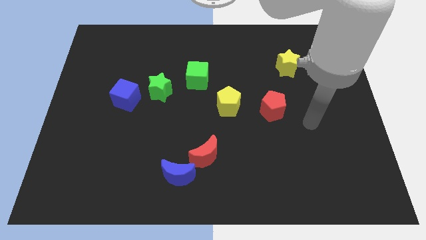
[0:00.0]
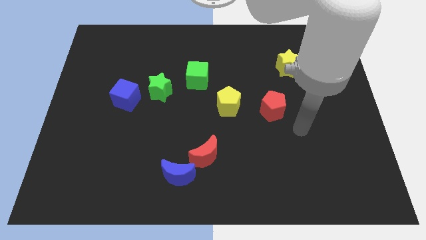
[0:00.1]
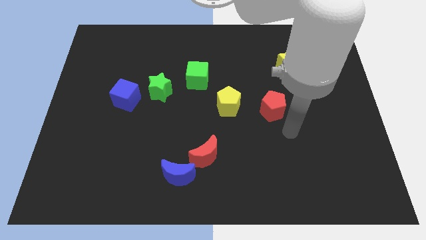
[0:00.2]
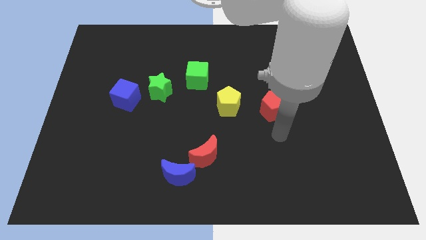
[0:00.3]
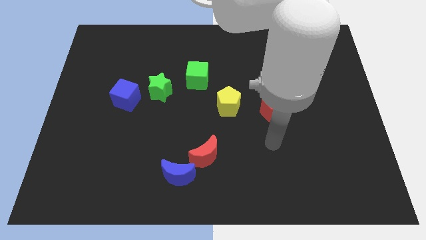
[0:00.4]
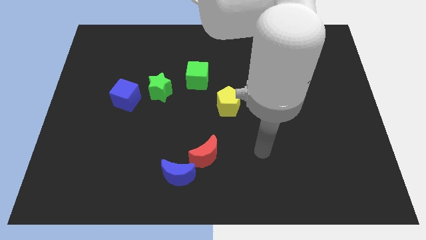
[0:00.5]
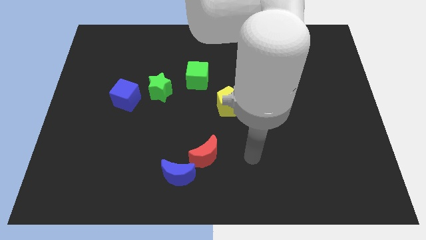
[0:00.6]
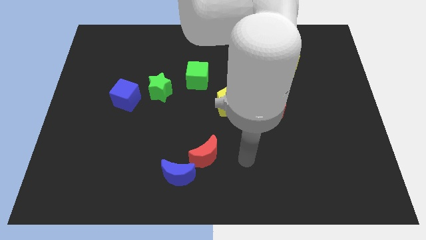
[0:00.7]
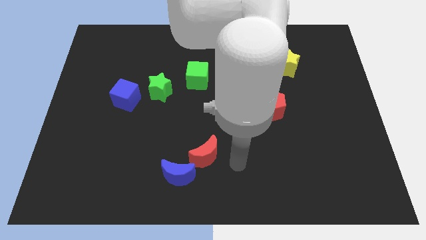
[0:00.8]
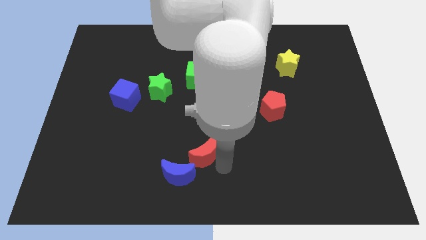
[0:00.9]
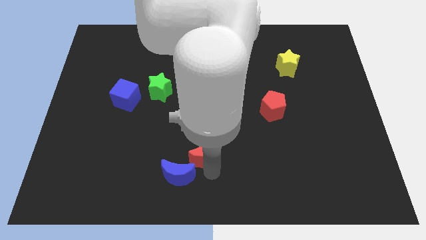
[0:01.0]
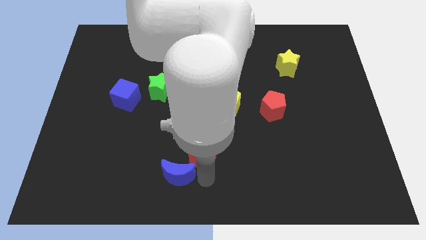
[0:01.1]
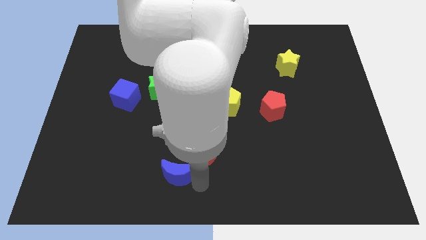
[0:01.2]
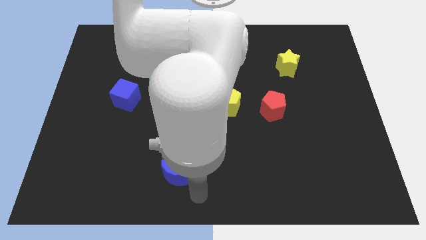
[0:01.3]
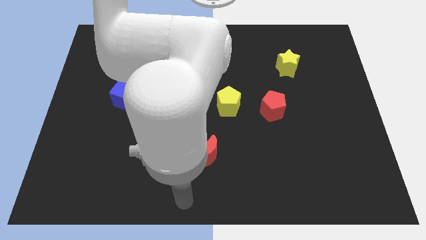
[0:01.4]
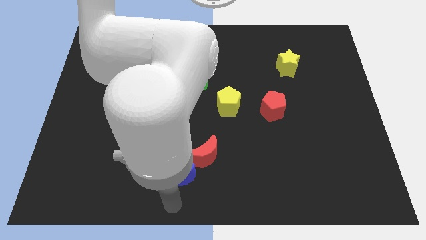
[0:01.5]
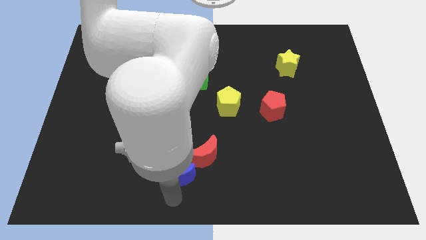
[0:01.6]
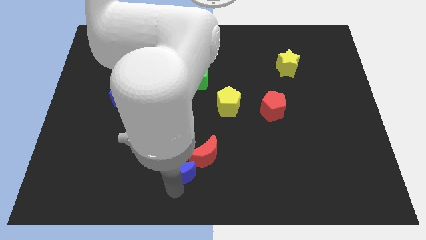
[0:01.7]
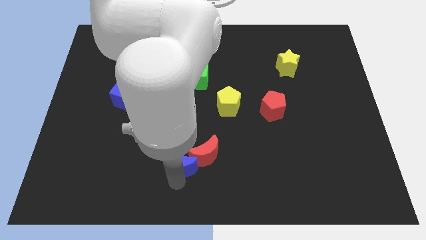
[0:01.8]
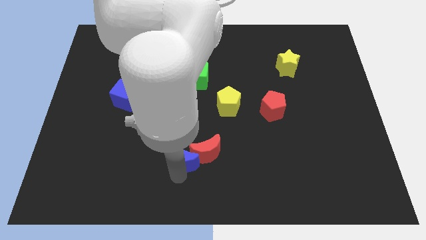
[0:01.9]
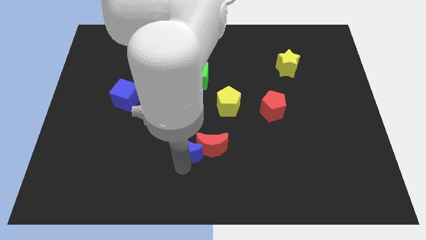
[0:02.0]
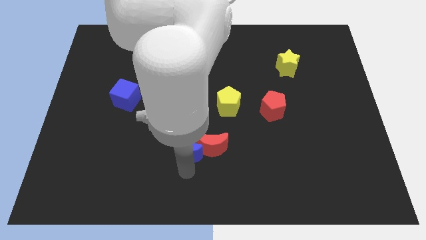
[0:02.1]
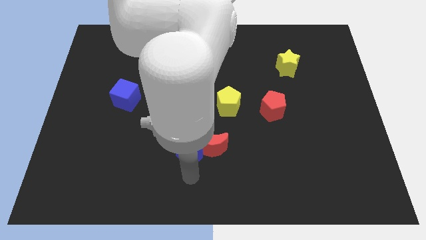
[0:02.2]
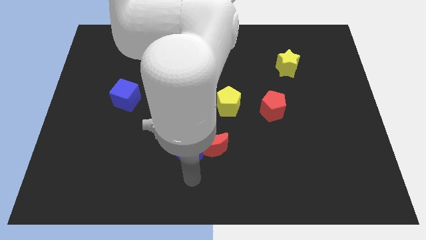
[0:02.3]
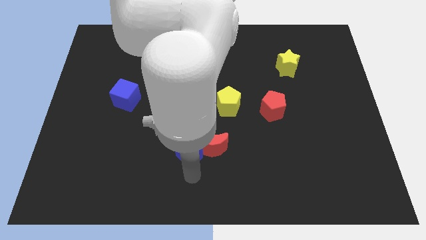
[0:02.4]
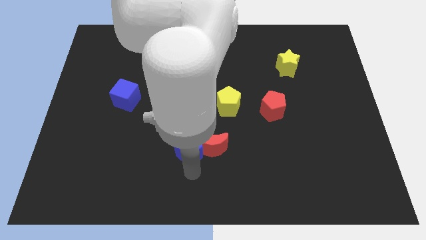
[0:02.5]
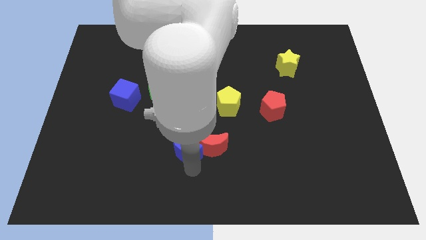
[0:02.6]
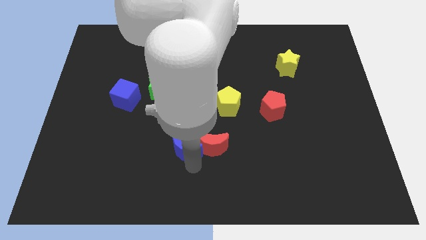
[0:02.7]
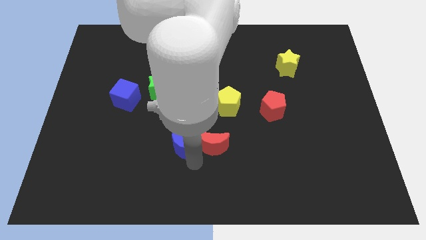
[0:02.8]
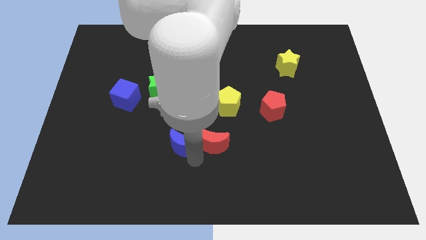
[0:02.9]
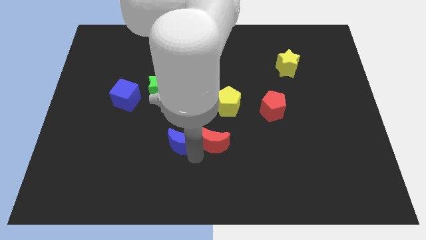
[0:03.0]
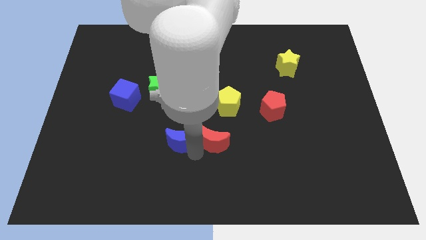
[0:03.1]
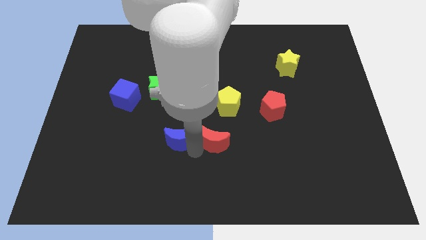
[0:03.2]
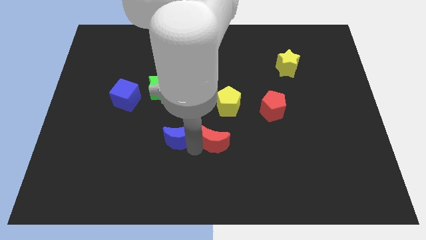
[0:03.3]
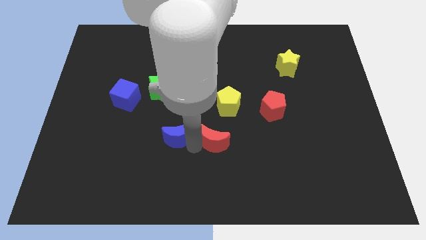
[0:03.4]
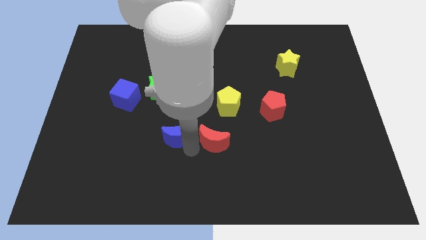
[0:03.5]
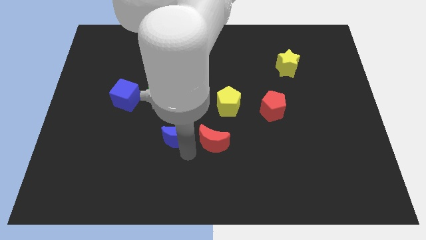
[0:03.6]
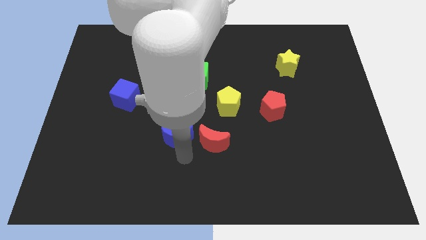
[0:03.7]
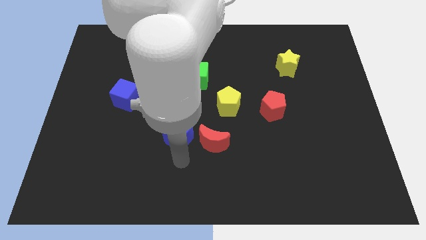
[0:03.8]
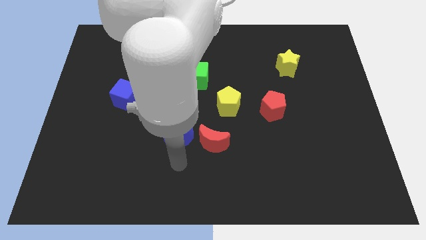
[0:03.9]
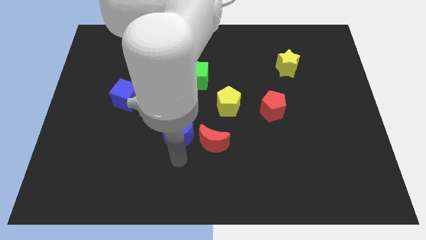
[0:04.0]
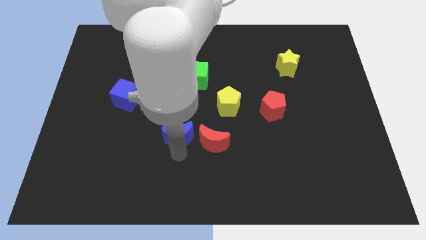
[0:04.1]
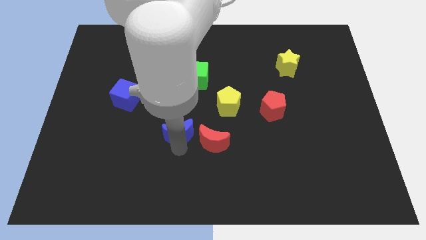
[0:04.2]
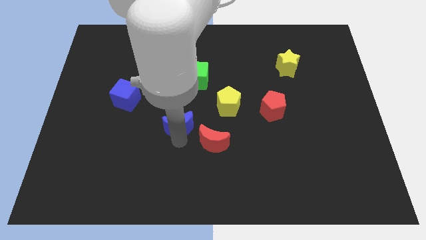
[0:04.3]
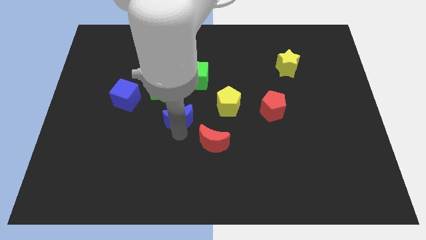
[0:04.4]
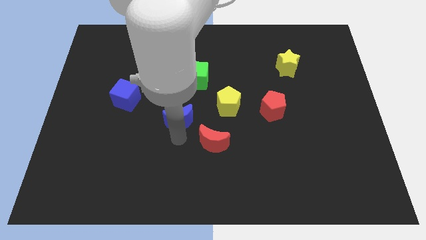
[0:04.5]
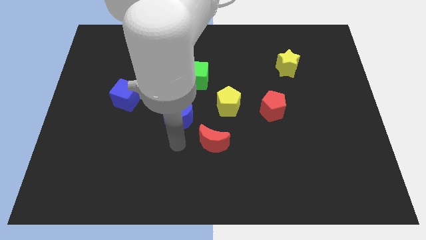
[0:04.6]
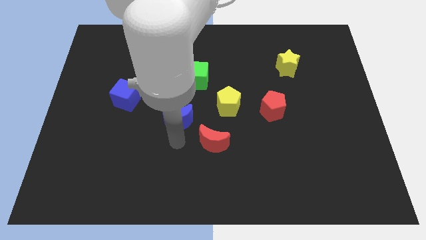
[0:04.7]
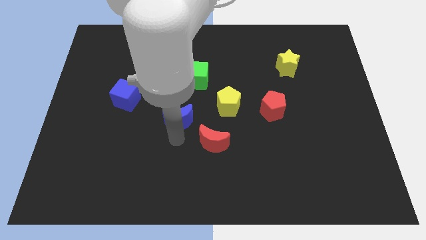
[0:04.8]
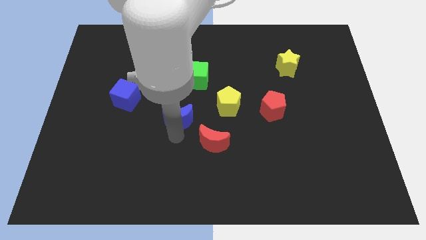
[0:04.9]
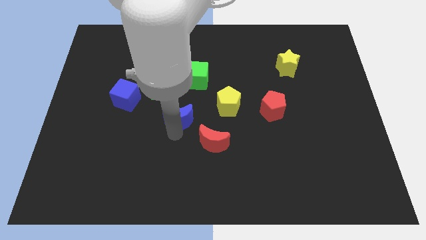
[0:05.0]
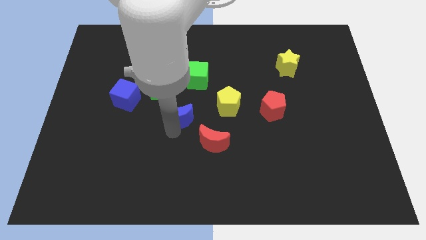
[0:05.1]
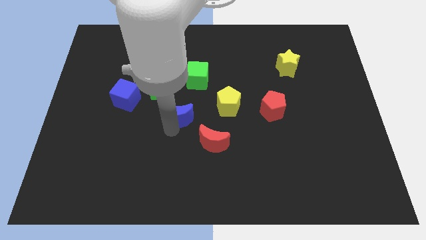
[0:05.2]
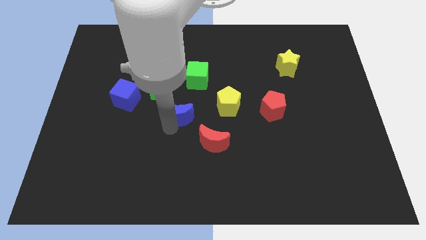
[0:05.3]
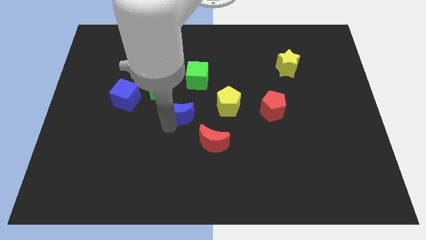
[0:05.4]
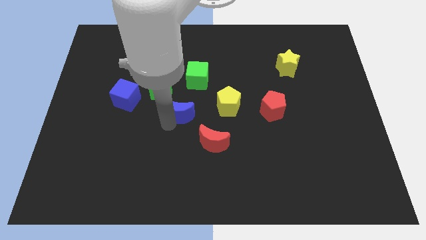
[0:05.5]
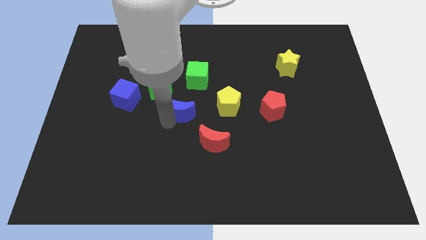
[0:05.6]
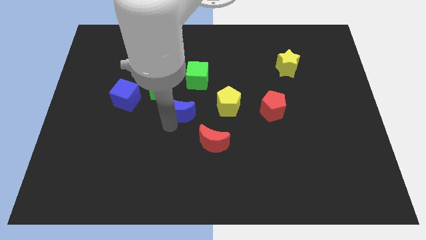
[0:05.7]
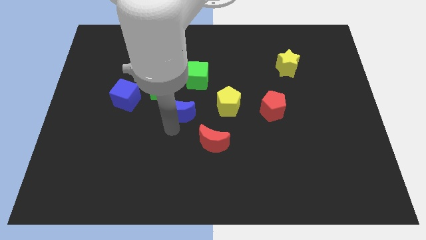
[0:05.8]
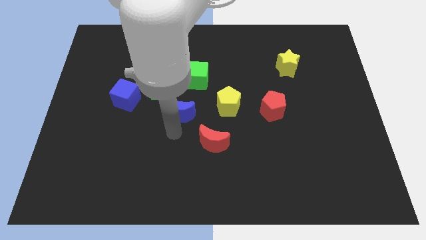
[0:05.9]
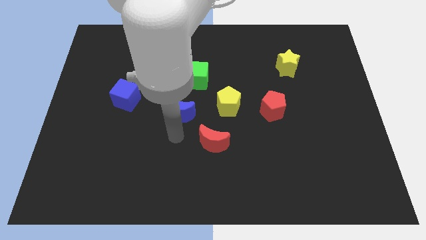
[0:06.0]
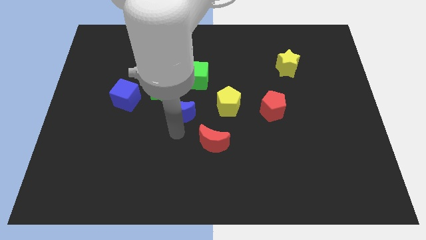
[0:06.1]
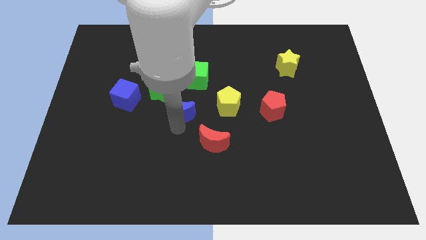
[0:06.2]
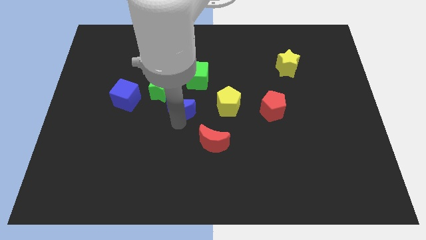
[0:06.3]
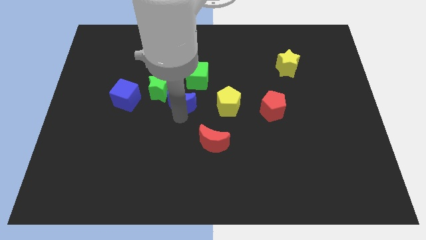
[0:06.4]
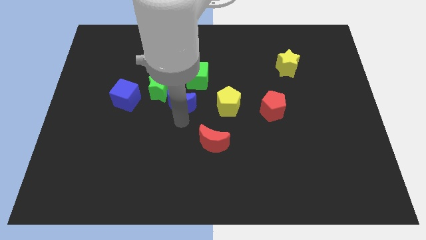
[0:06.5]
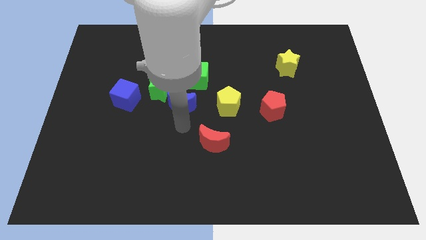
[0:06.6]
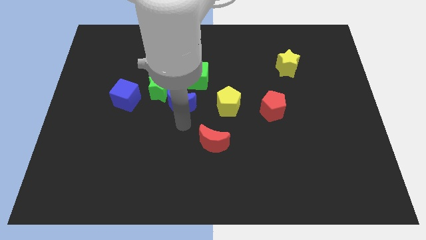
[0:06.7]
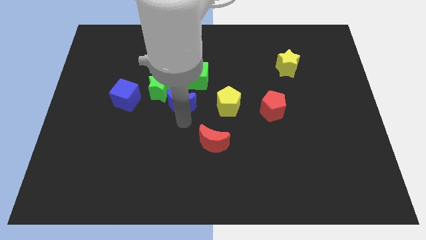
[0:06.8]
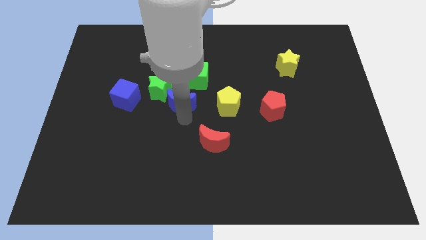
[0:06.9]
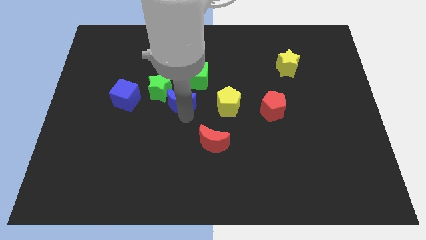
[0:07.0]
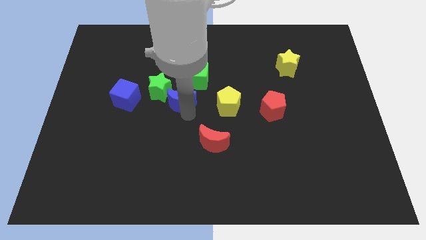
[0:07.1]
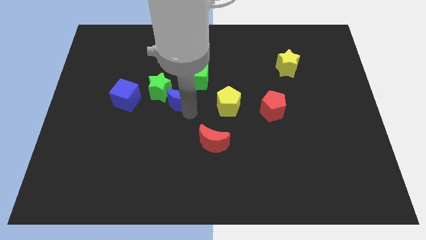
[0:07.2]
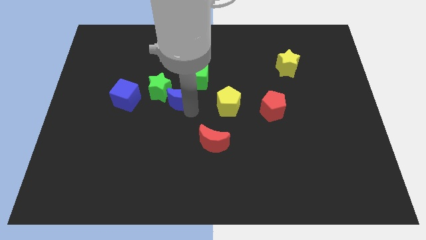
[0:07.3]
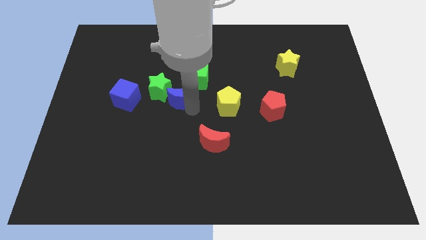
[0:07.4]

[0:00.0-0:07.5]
push the blue moon up

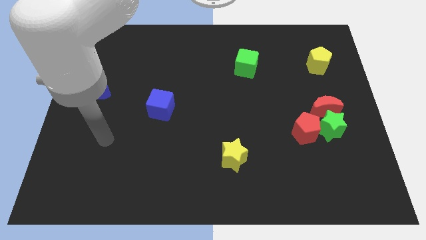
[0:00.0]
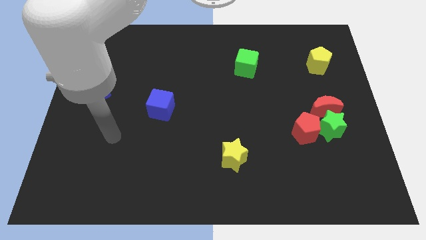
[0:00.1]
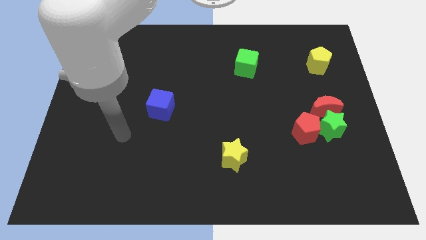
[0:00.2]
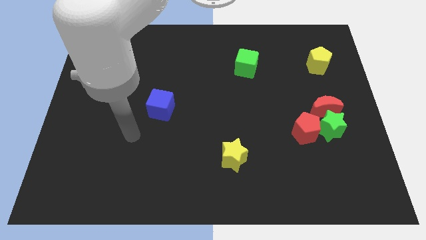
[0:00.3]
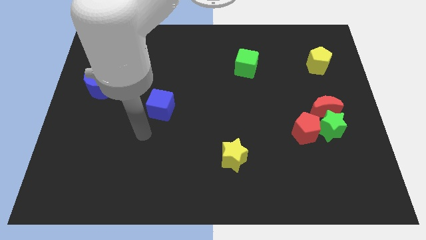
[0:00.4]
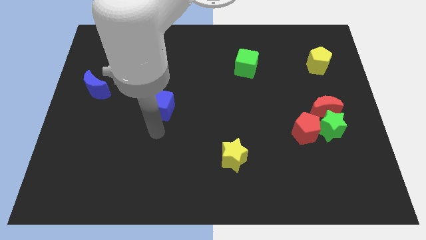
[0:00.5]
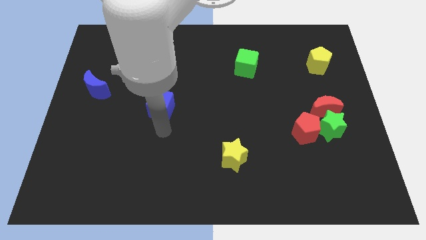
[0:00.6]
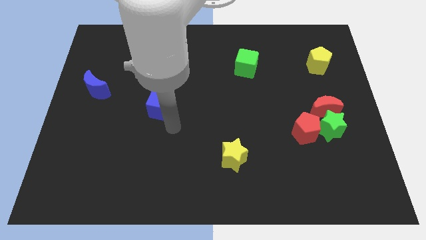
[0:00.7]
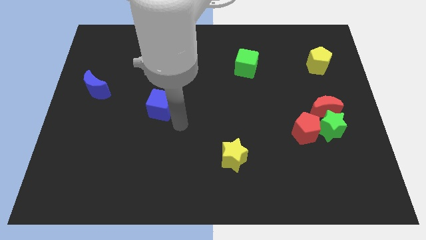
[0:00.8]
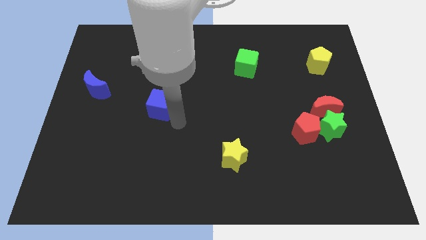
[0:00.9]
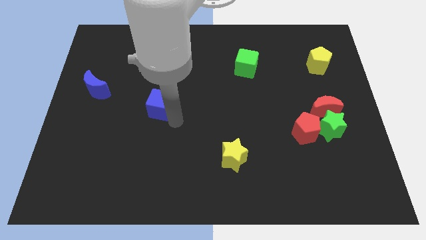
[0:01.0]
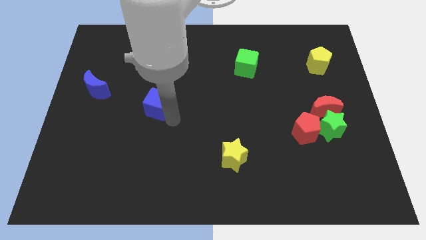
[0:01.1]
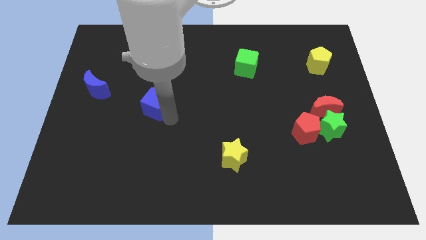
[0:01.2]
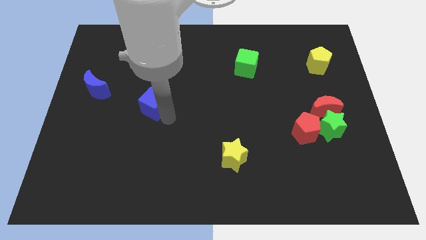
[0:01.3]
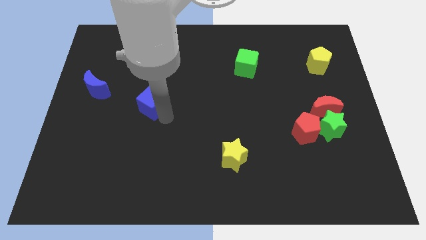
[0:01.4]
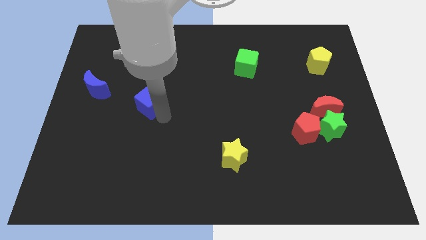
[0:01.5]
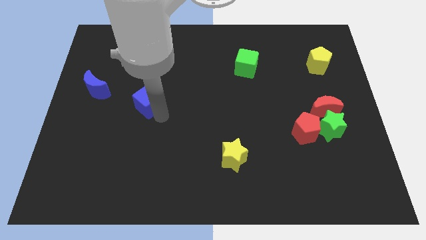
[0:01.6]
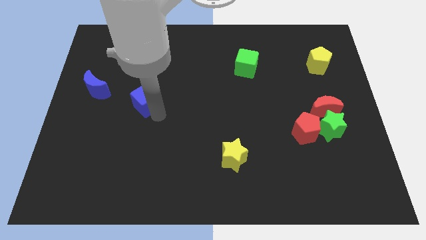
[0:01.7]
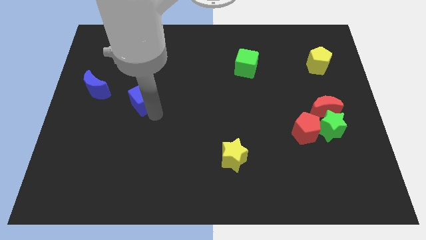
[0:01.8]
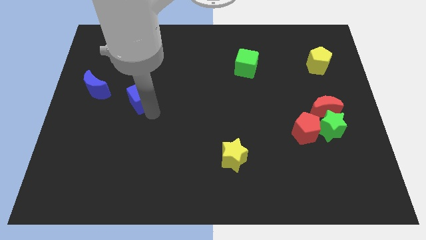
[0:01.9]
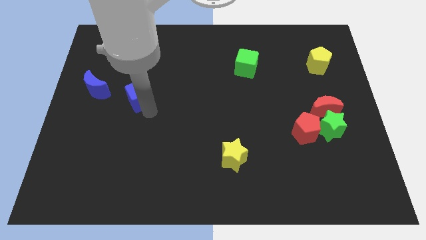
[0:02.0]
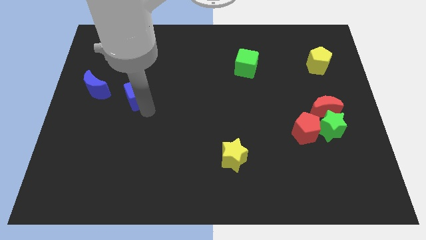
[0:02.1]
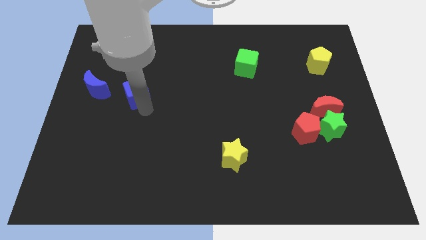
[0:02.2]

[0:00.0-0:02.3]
slightly push the blue cube upwards and to the left diagonally
